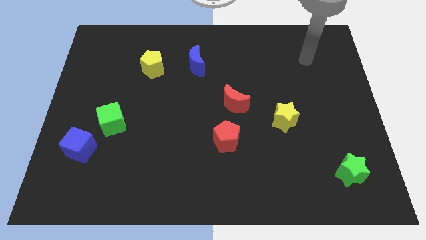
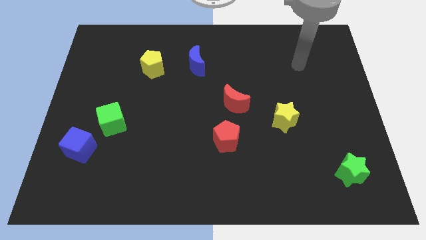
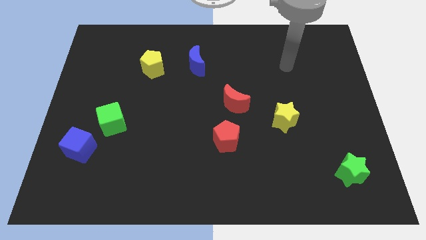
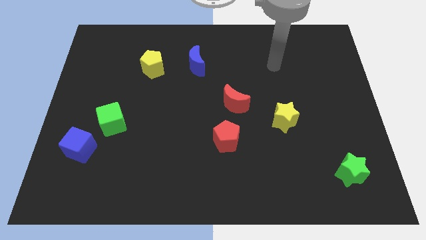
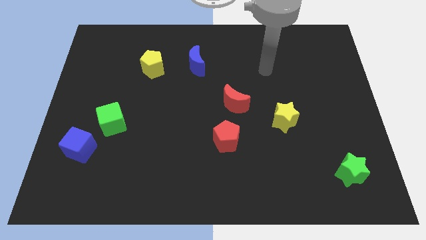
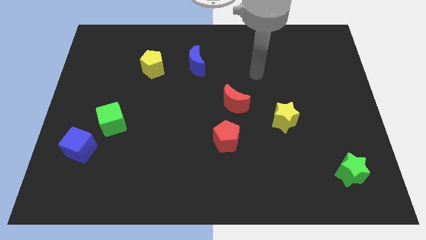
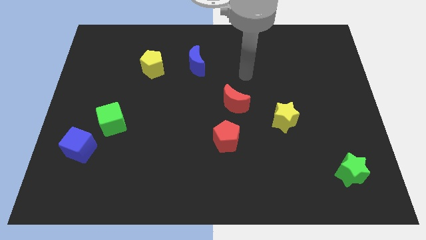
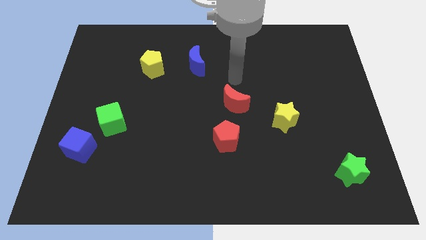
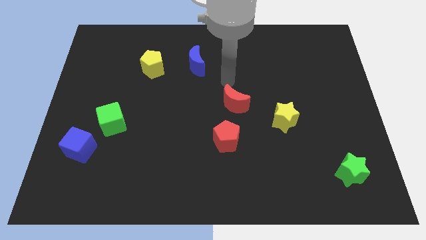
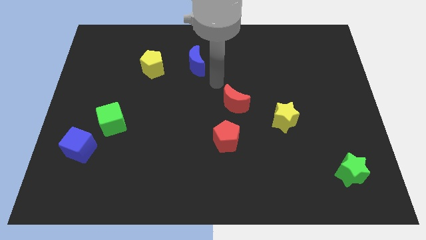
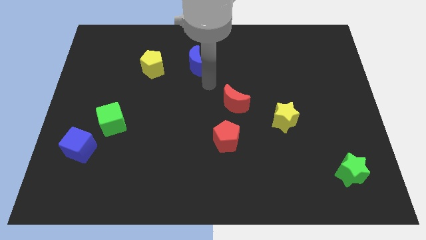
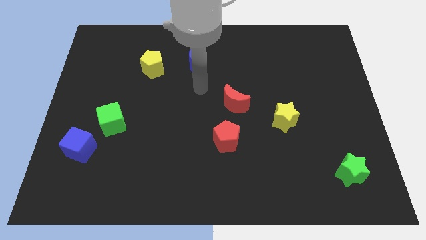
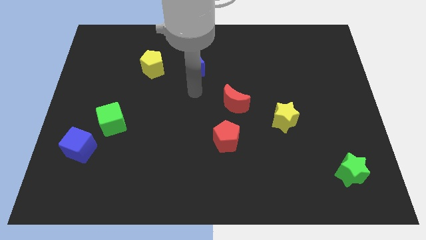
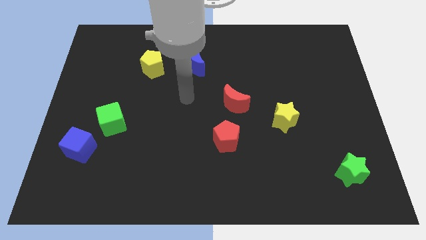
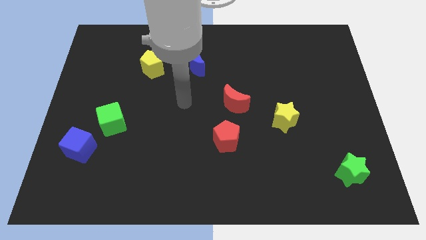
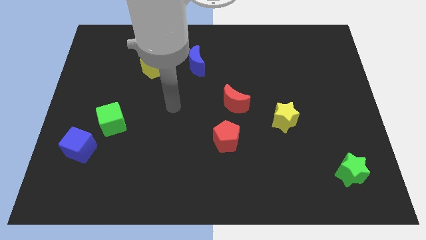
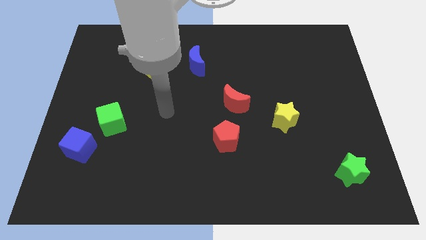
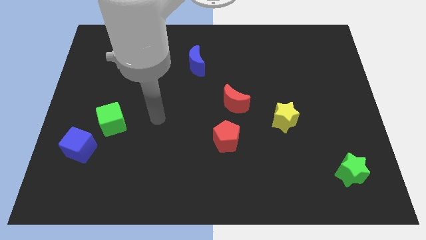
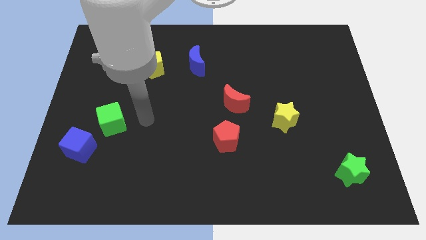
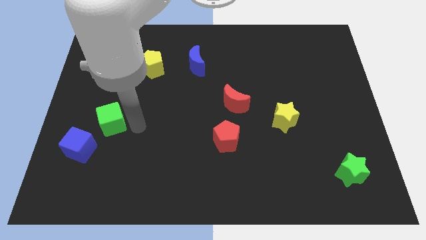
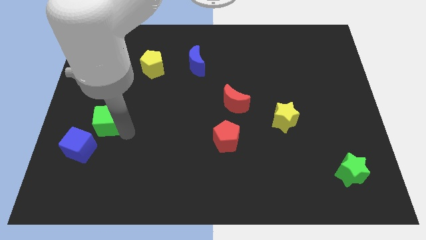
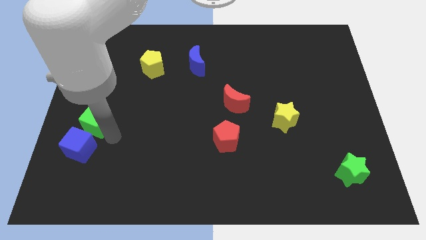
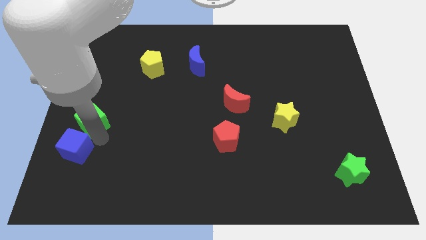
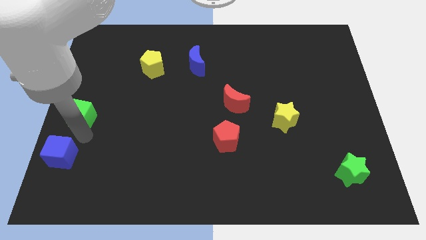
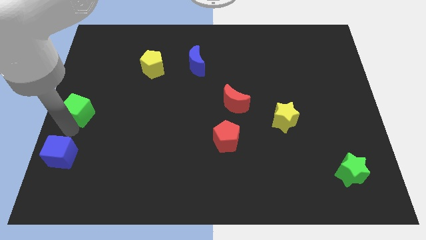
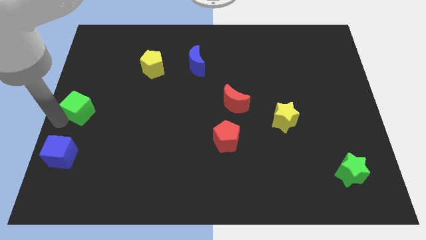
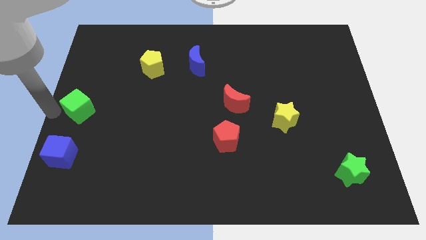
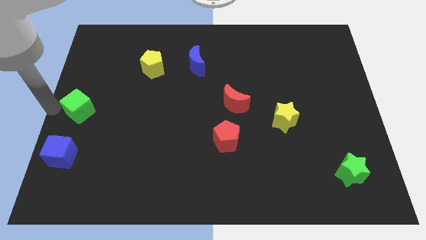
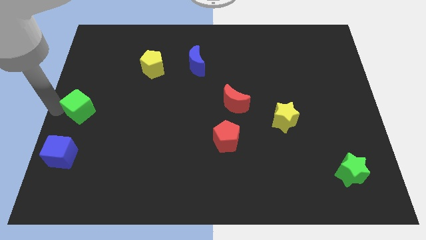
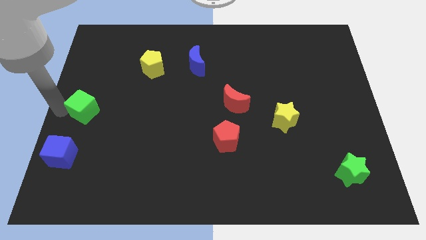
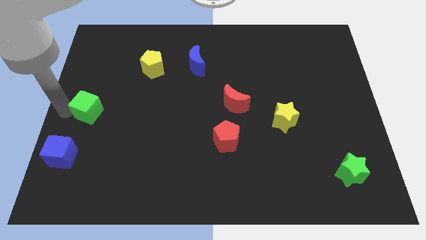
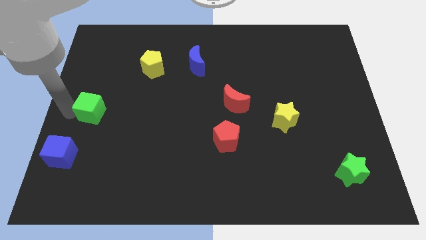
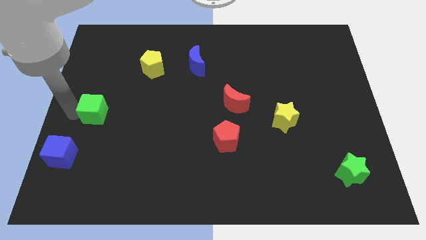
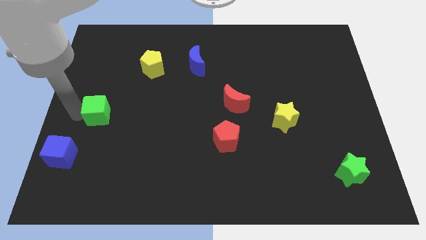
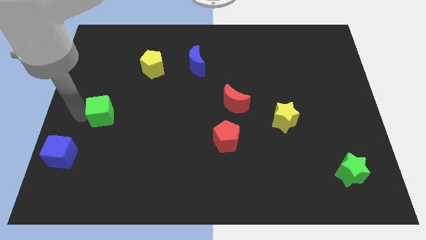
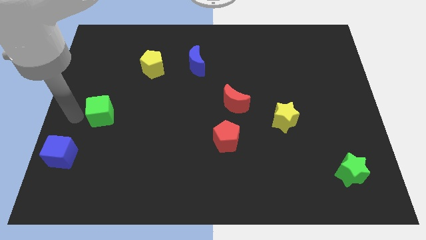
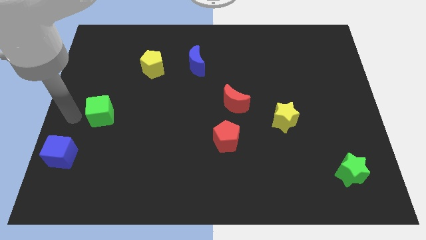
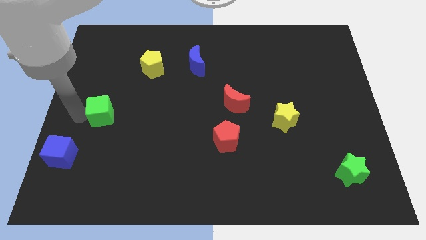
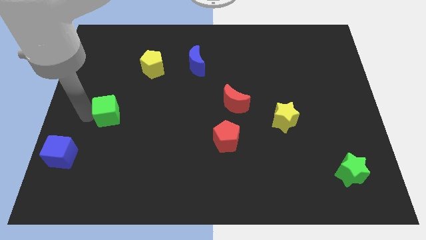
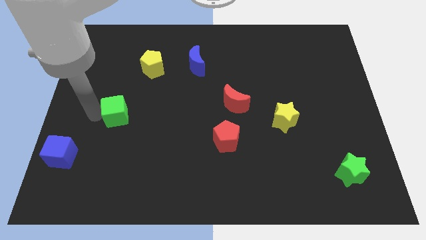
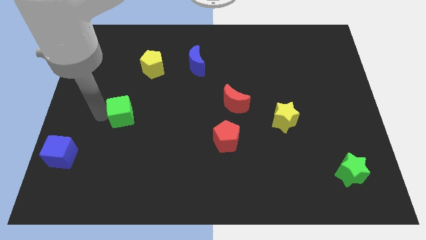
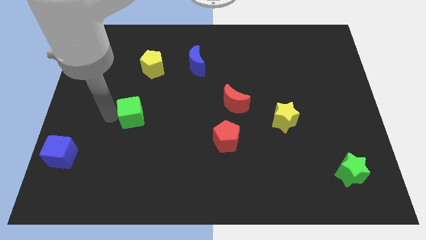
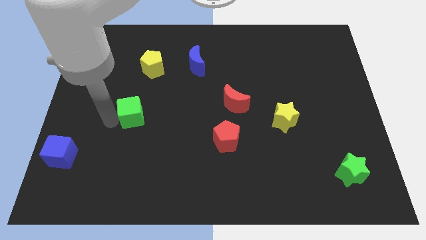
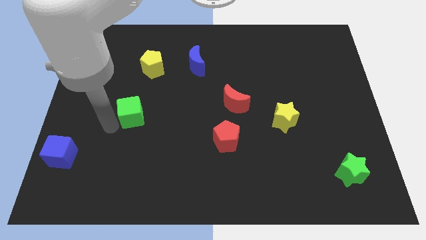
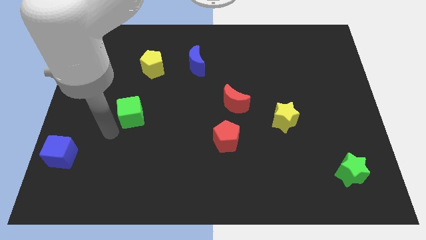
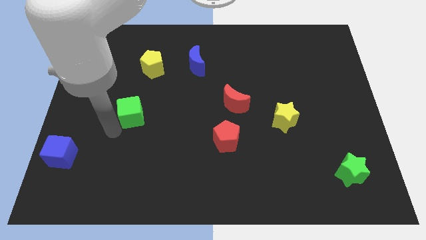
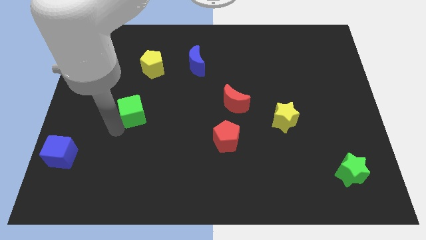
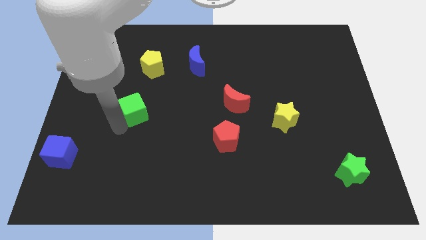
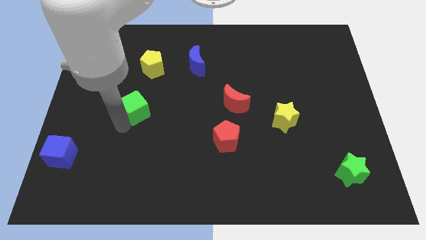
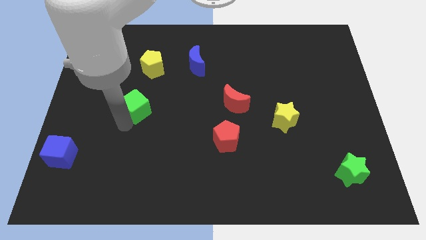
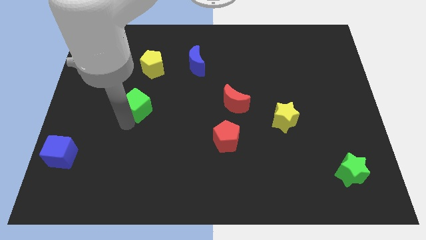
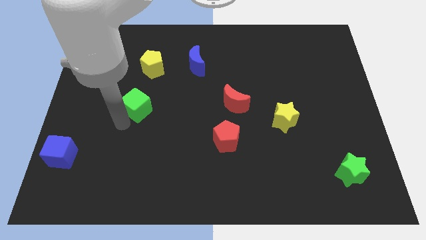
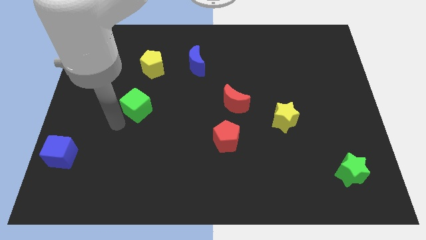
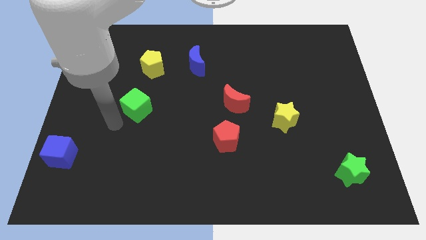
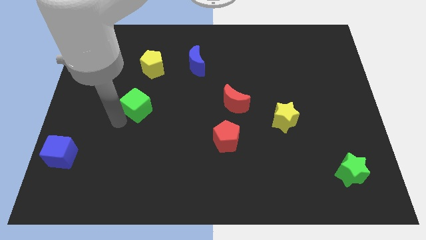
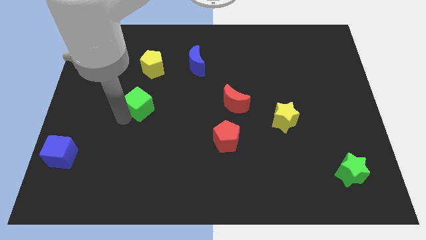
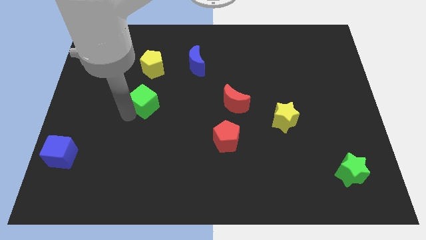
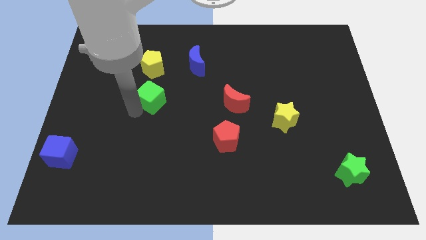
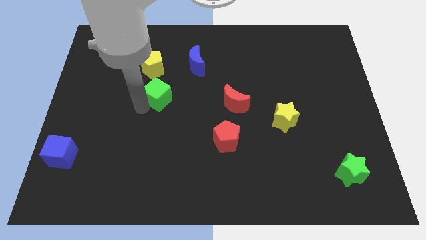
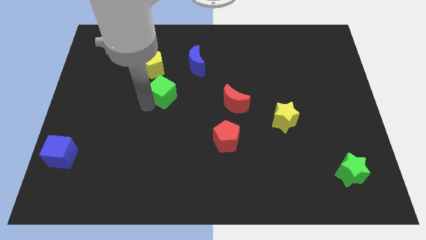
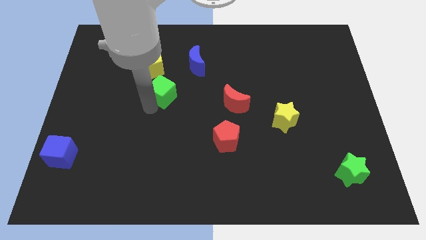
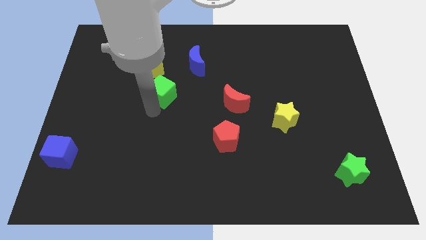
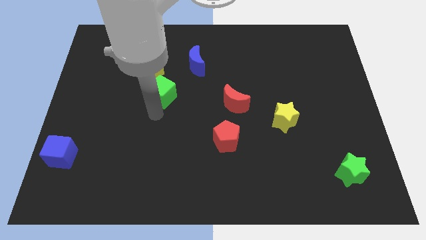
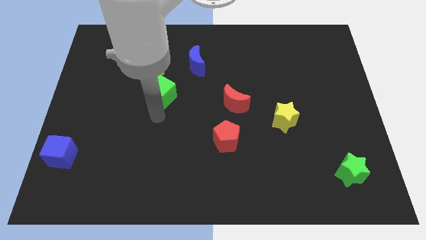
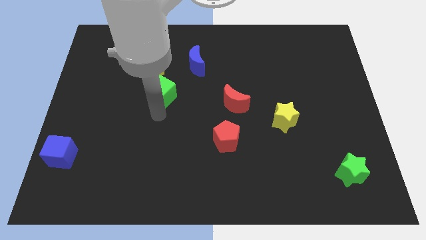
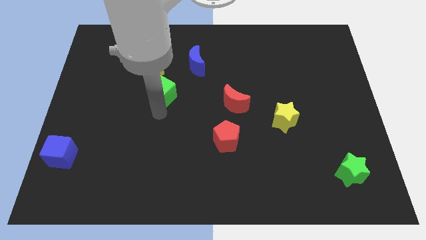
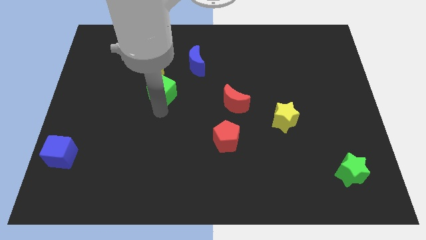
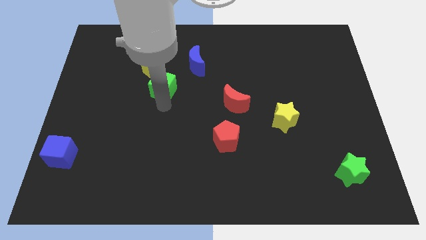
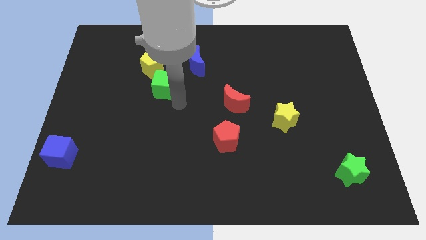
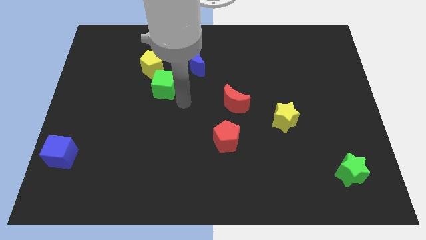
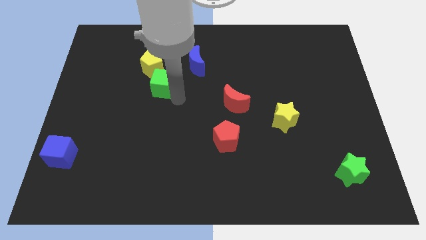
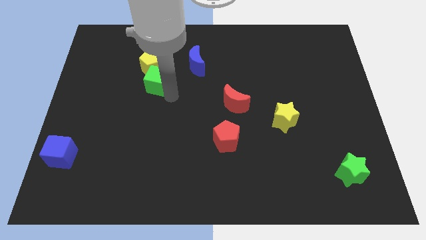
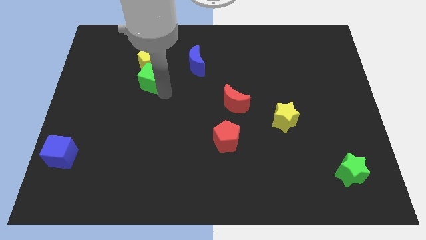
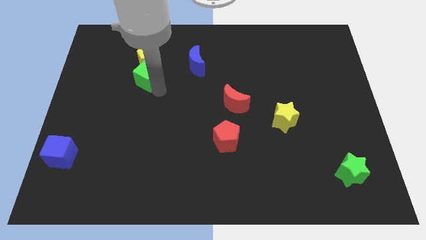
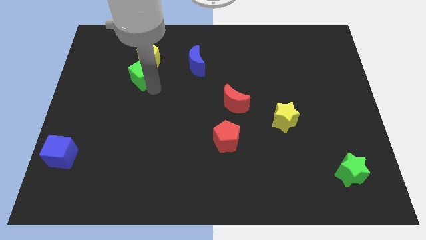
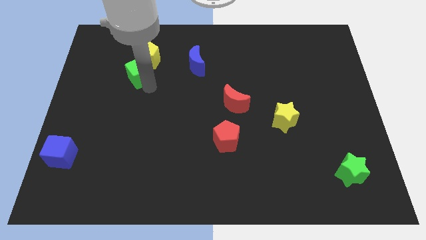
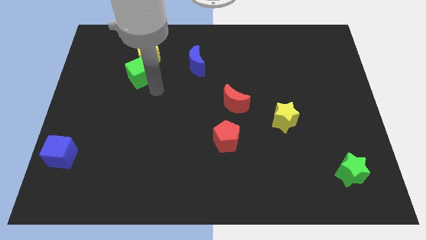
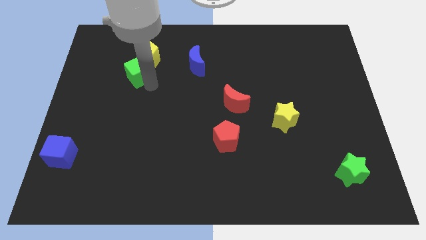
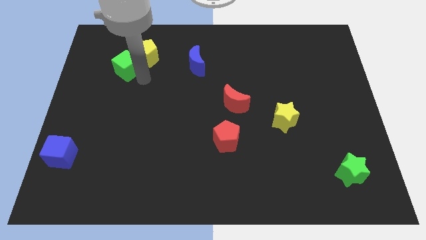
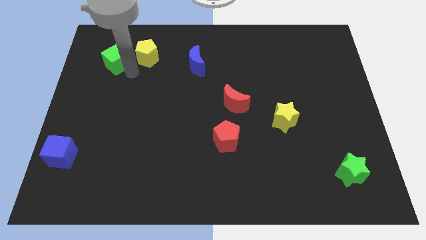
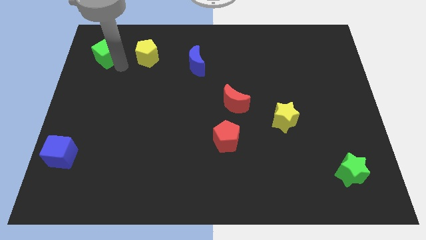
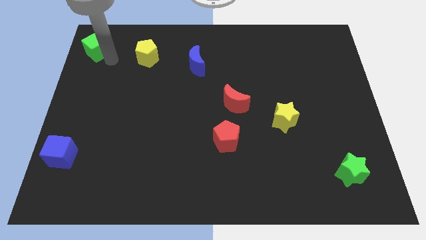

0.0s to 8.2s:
move the green cube to the upper left corner
